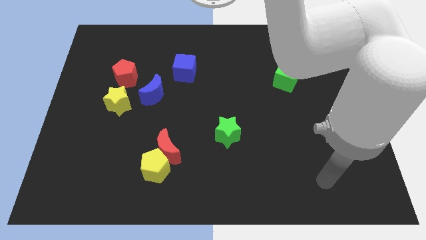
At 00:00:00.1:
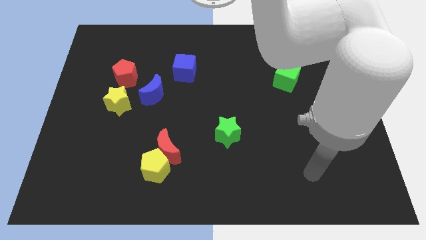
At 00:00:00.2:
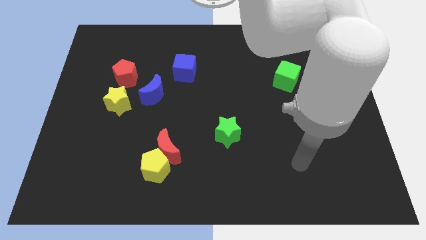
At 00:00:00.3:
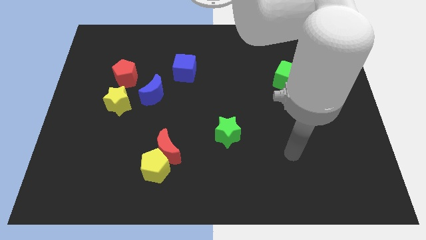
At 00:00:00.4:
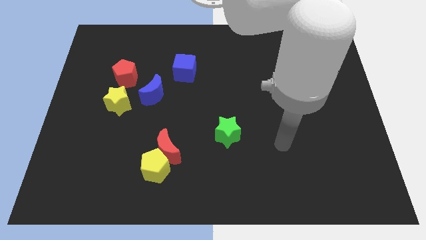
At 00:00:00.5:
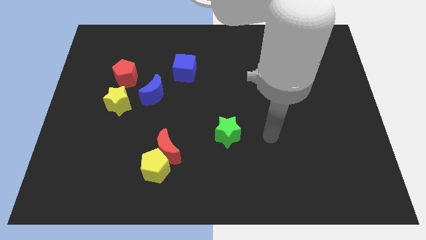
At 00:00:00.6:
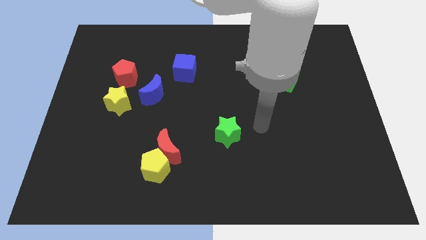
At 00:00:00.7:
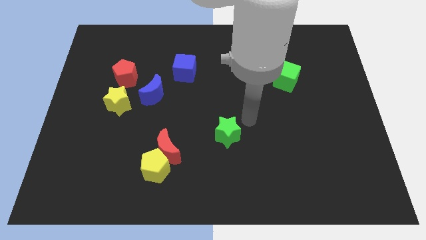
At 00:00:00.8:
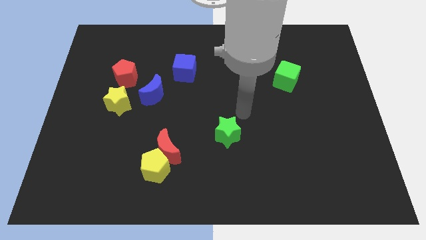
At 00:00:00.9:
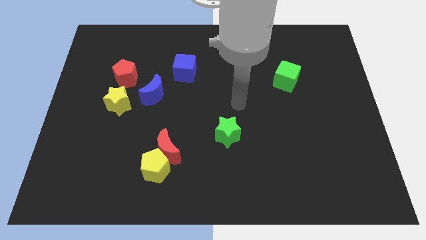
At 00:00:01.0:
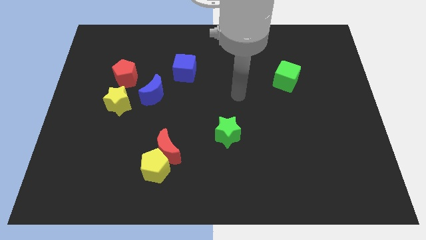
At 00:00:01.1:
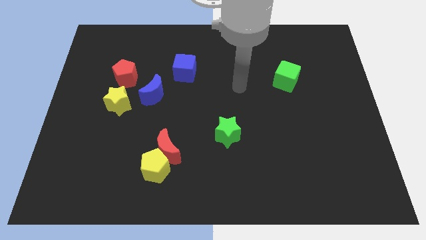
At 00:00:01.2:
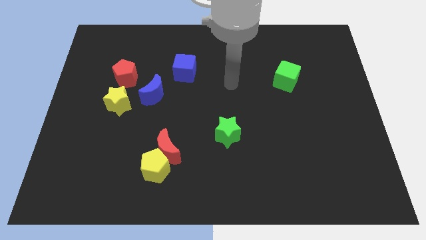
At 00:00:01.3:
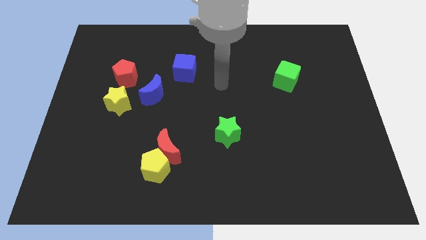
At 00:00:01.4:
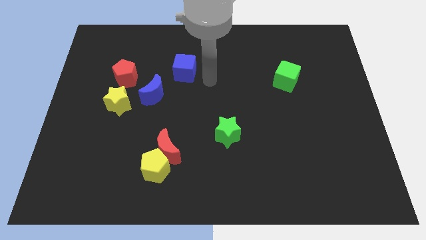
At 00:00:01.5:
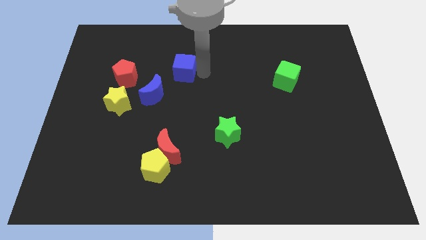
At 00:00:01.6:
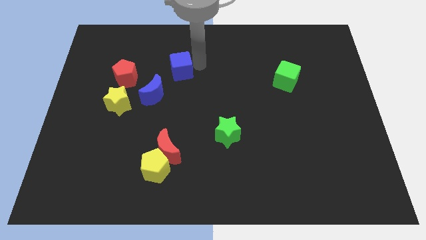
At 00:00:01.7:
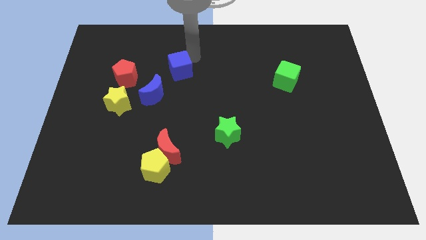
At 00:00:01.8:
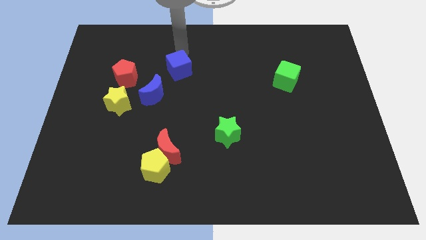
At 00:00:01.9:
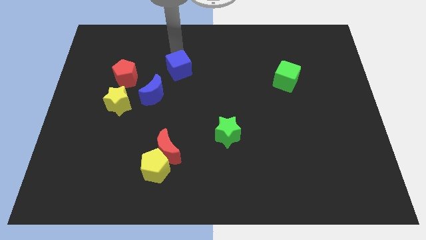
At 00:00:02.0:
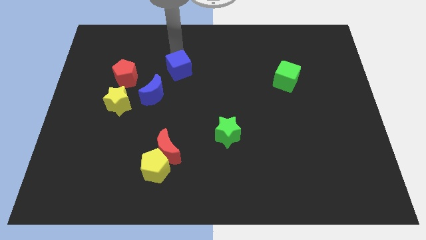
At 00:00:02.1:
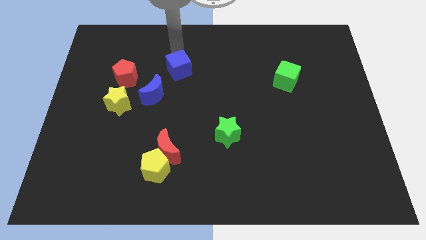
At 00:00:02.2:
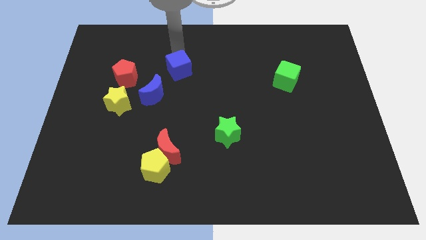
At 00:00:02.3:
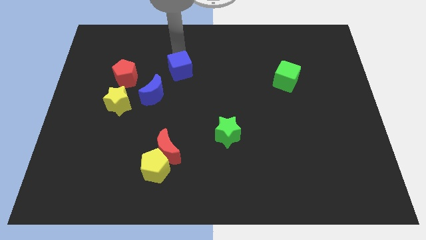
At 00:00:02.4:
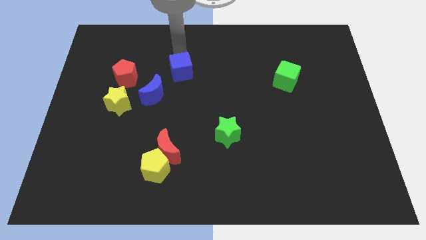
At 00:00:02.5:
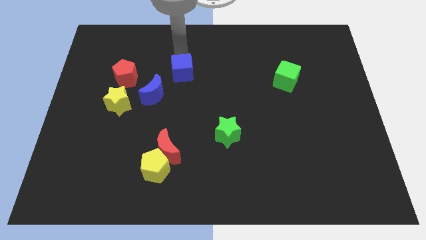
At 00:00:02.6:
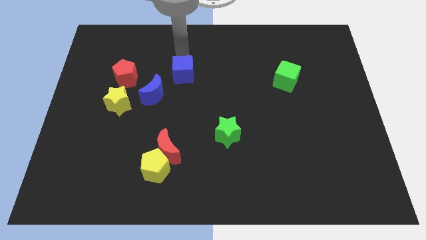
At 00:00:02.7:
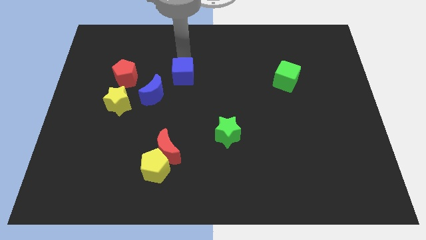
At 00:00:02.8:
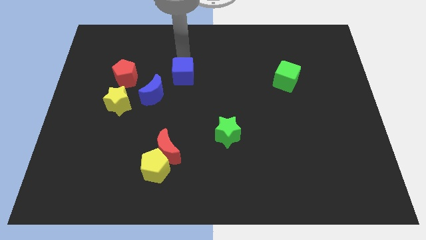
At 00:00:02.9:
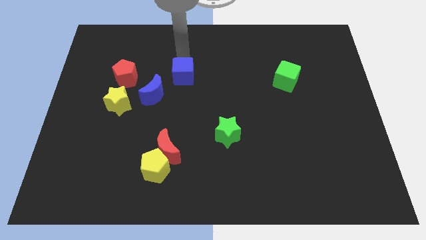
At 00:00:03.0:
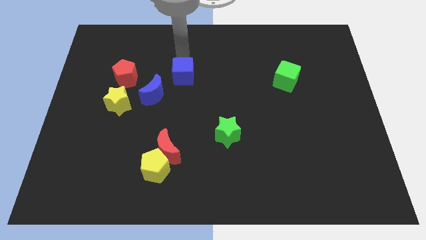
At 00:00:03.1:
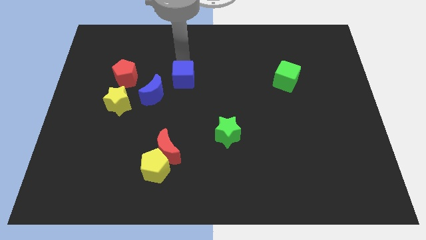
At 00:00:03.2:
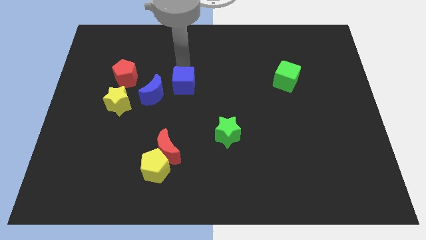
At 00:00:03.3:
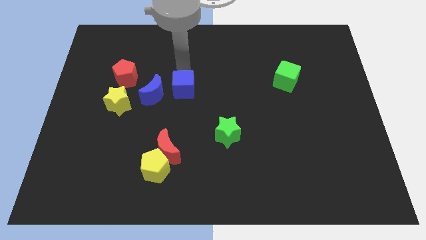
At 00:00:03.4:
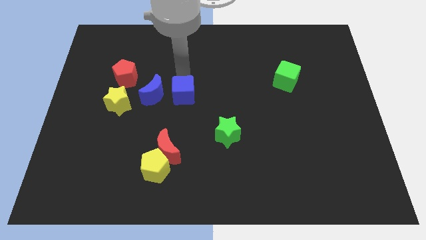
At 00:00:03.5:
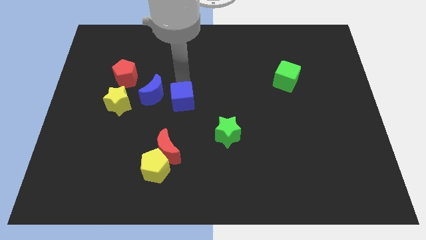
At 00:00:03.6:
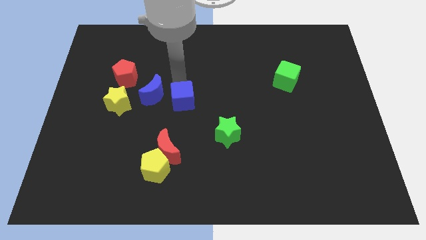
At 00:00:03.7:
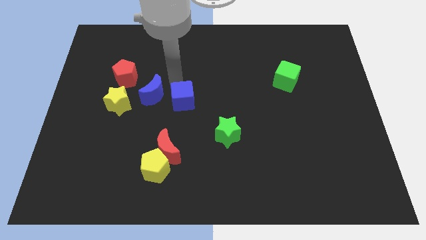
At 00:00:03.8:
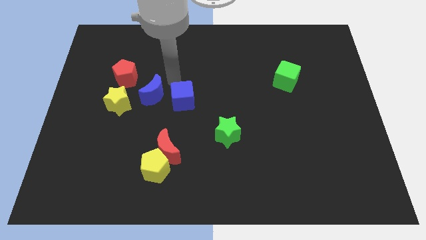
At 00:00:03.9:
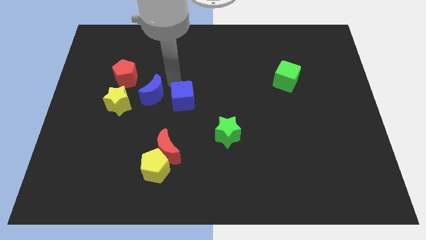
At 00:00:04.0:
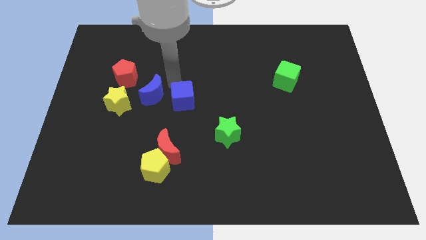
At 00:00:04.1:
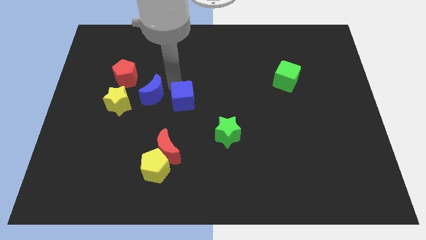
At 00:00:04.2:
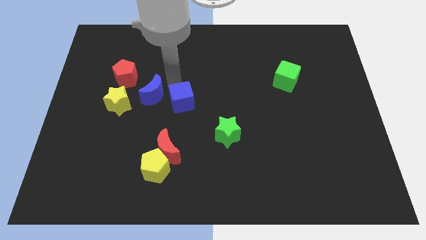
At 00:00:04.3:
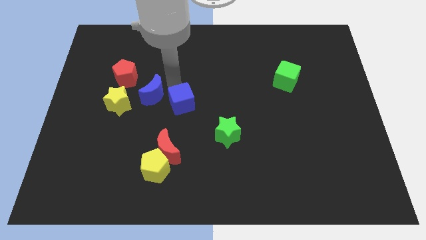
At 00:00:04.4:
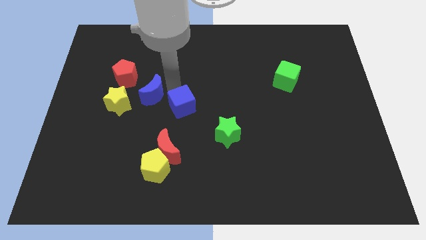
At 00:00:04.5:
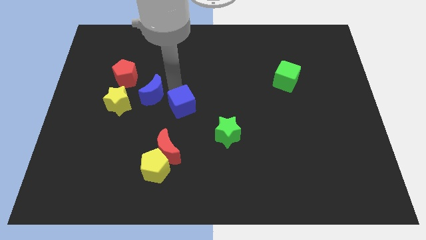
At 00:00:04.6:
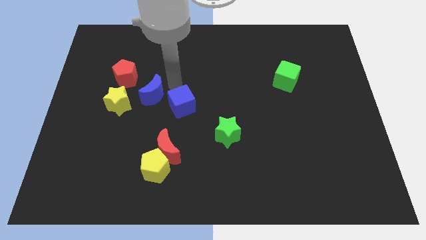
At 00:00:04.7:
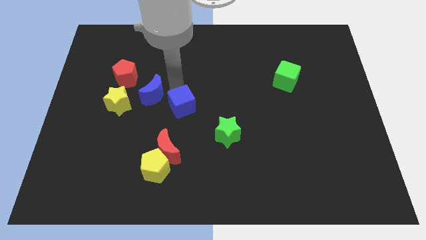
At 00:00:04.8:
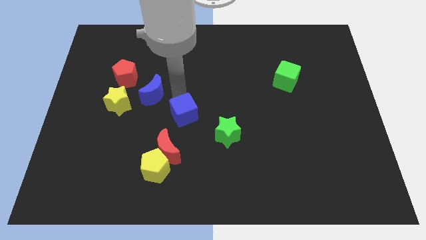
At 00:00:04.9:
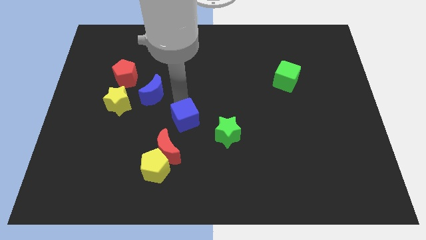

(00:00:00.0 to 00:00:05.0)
slide the blue cube diagonally up and to the right of the red moon

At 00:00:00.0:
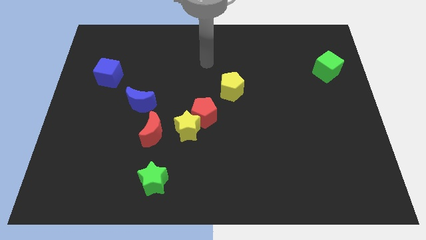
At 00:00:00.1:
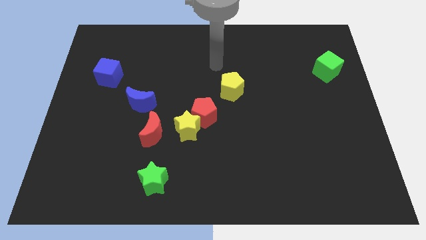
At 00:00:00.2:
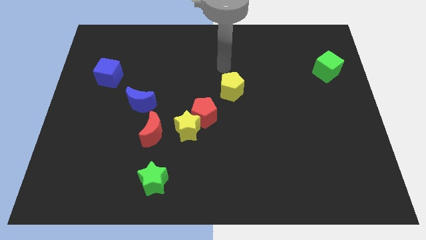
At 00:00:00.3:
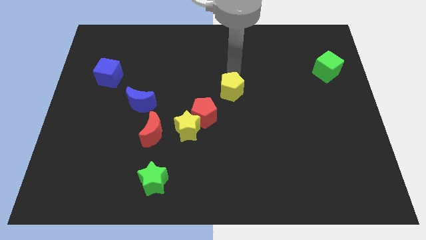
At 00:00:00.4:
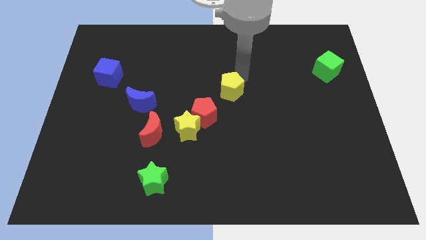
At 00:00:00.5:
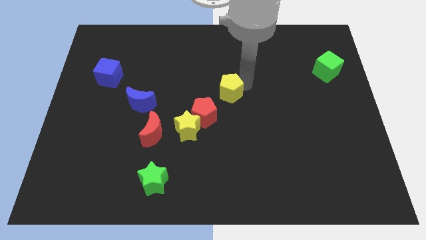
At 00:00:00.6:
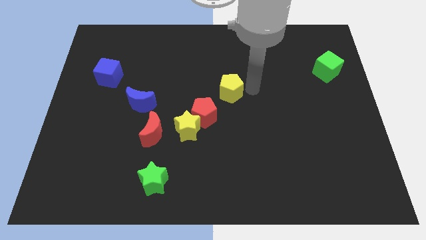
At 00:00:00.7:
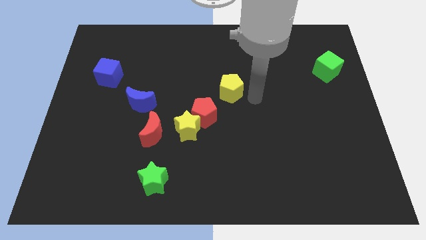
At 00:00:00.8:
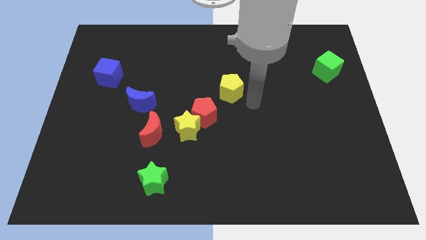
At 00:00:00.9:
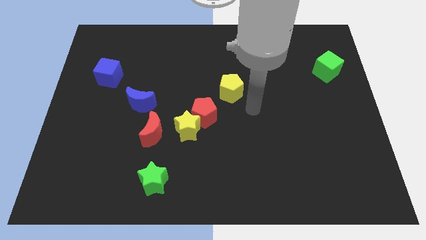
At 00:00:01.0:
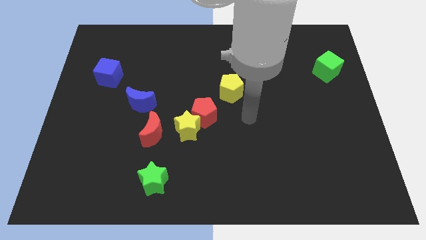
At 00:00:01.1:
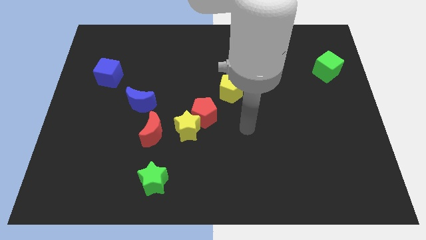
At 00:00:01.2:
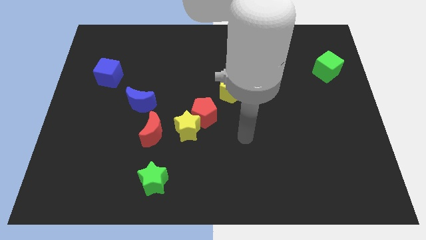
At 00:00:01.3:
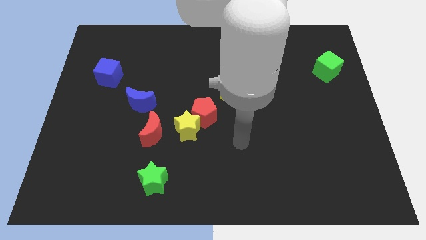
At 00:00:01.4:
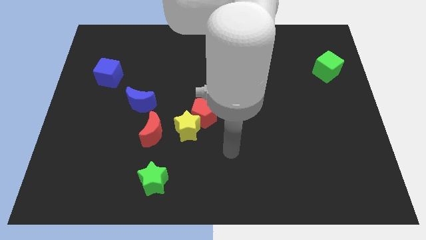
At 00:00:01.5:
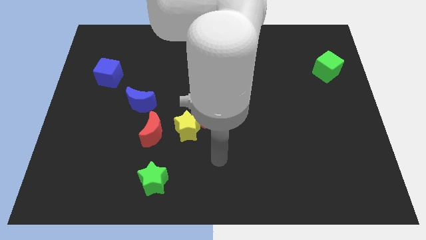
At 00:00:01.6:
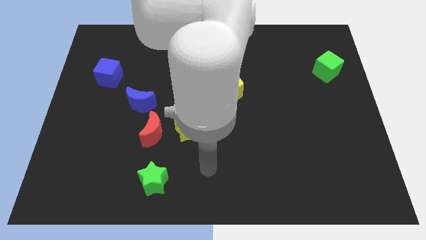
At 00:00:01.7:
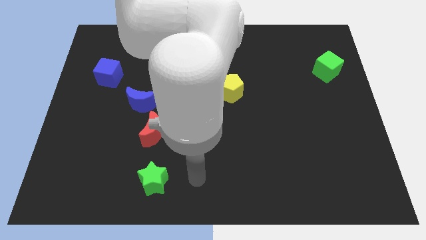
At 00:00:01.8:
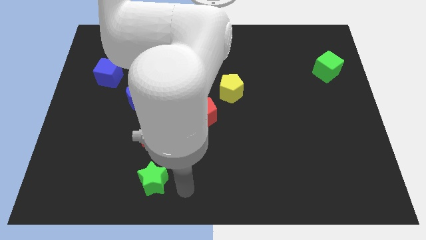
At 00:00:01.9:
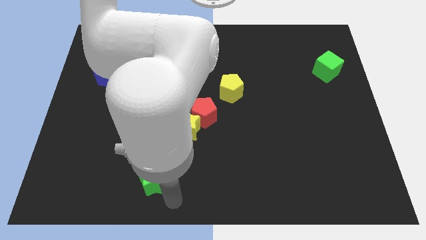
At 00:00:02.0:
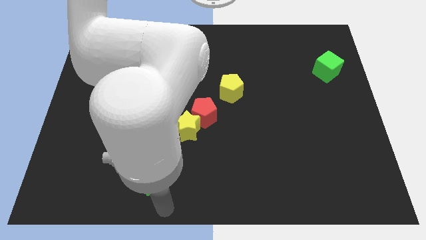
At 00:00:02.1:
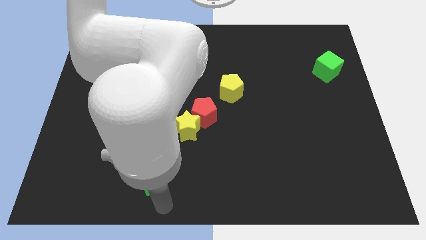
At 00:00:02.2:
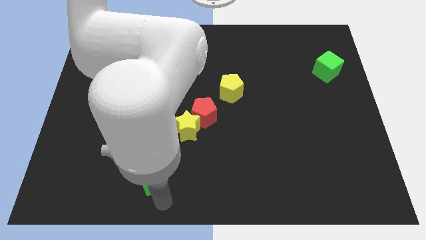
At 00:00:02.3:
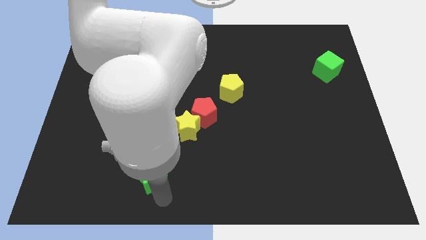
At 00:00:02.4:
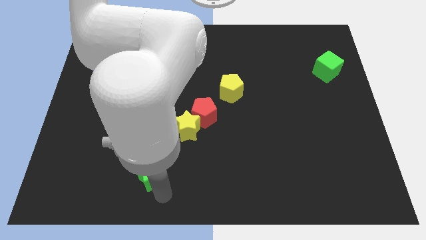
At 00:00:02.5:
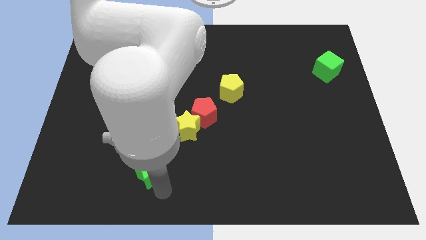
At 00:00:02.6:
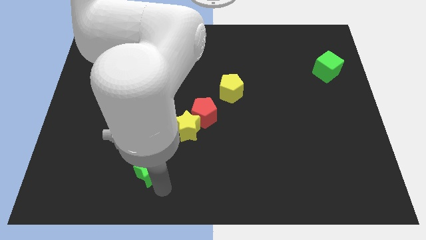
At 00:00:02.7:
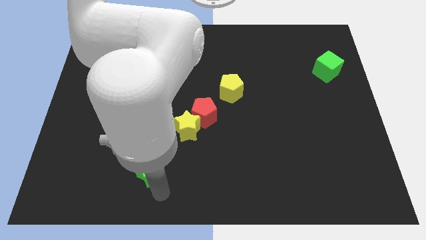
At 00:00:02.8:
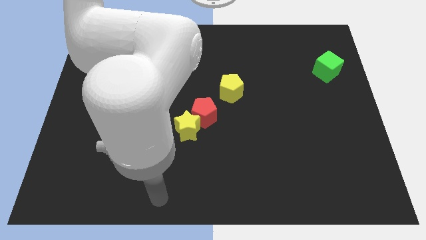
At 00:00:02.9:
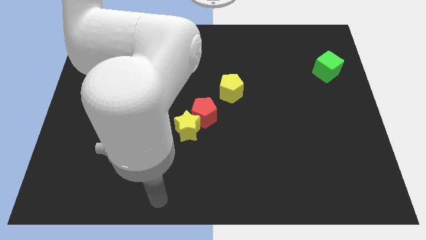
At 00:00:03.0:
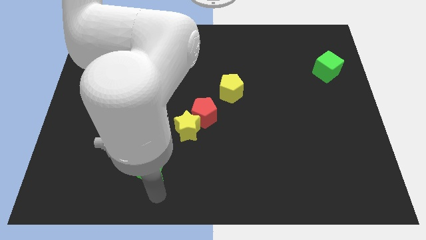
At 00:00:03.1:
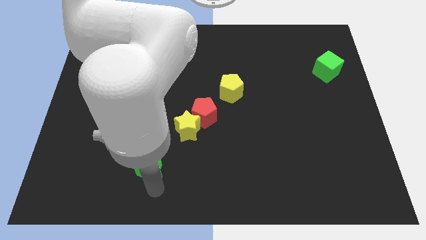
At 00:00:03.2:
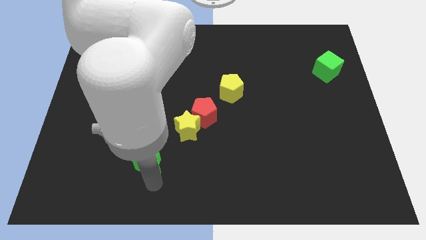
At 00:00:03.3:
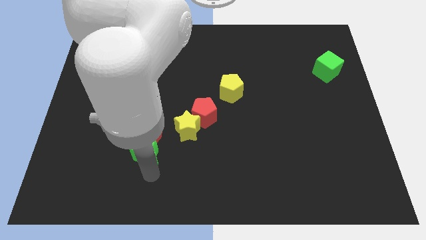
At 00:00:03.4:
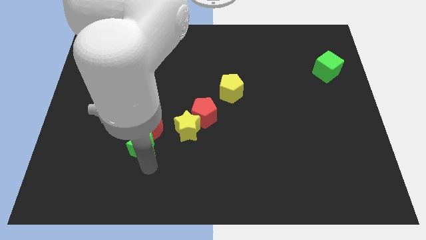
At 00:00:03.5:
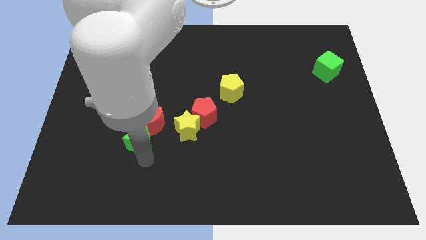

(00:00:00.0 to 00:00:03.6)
slide the green star left of the yellow star
